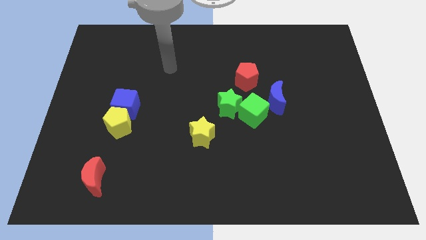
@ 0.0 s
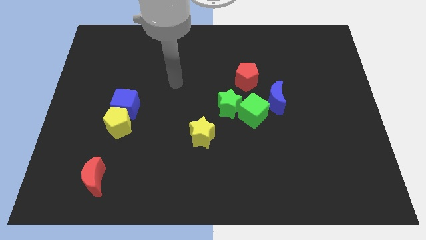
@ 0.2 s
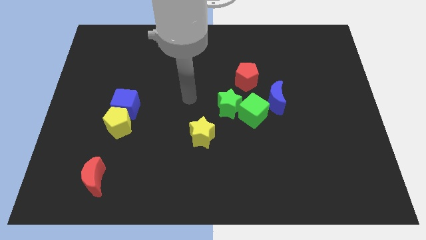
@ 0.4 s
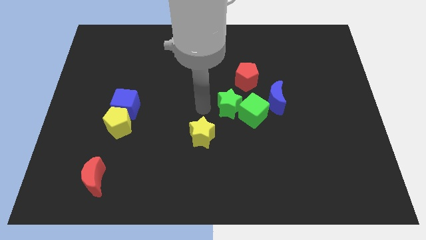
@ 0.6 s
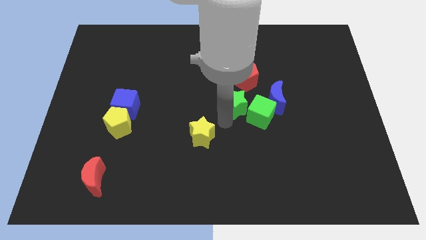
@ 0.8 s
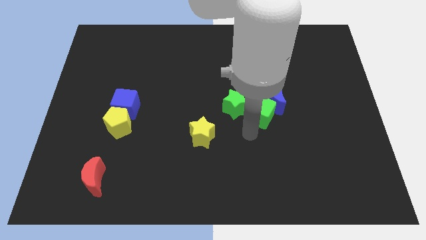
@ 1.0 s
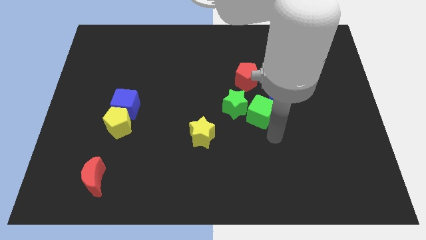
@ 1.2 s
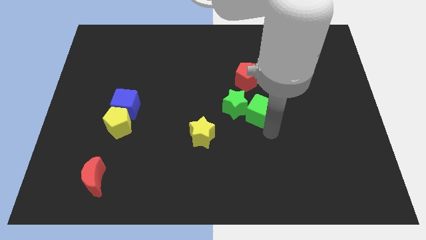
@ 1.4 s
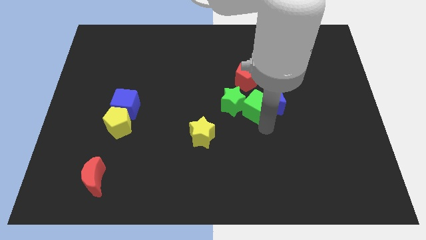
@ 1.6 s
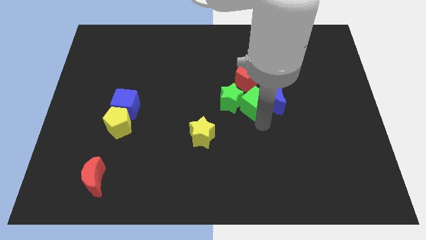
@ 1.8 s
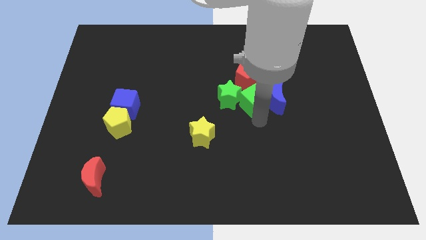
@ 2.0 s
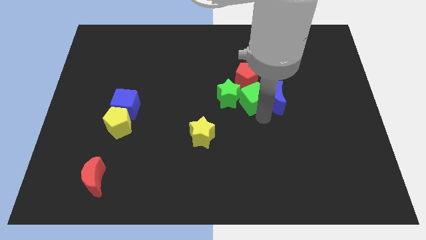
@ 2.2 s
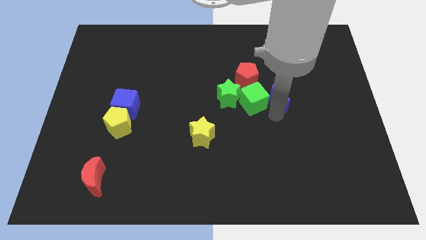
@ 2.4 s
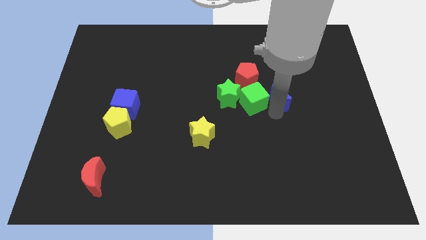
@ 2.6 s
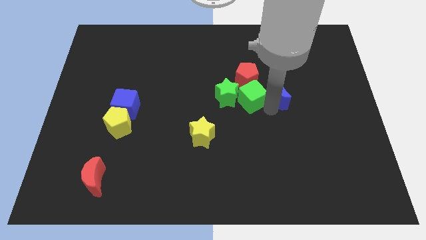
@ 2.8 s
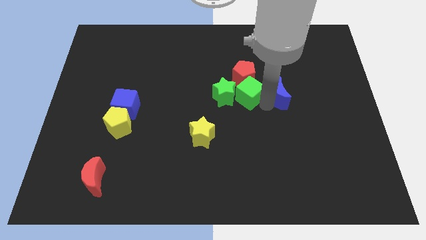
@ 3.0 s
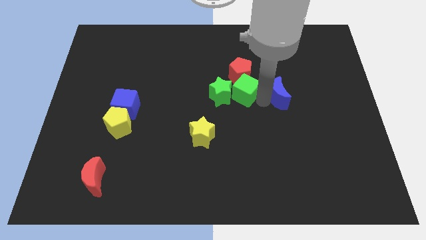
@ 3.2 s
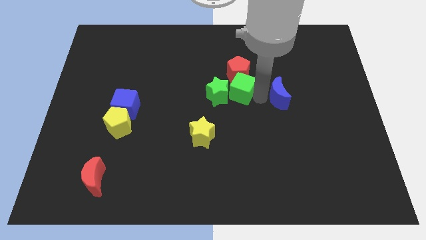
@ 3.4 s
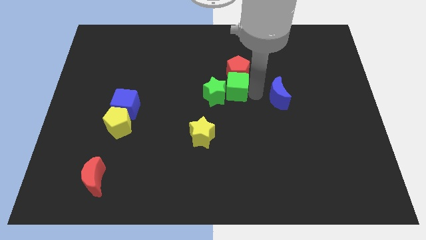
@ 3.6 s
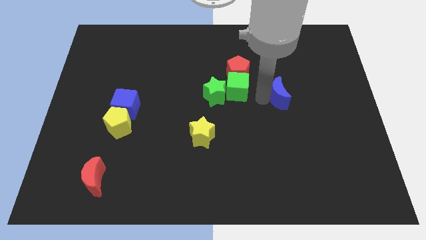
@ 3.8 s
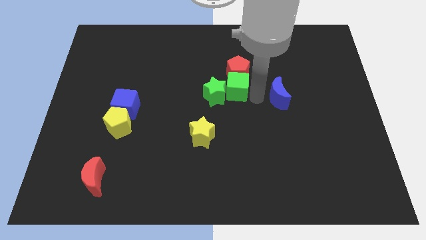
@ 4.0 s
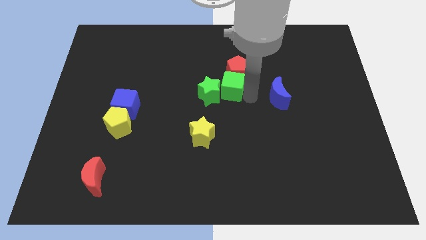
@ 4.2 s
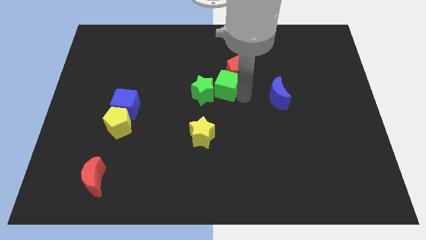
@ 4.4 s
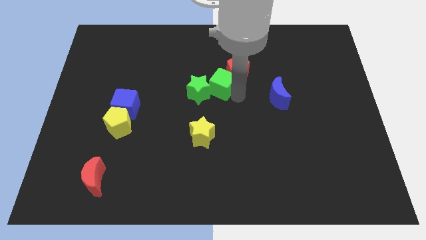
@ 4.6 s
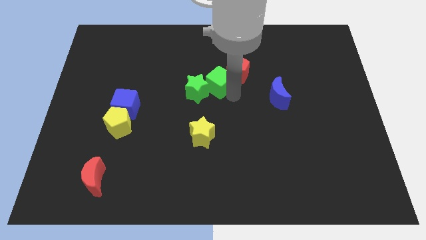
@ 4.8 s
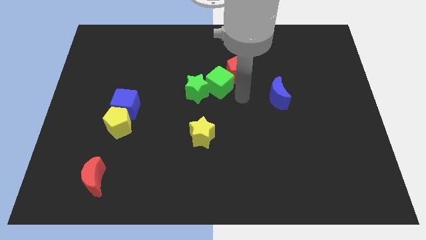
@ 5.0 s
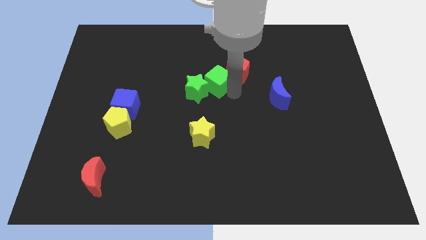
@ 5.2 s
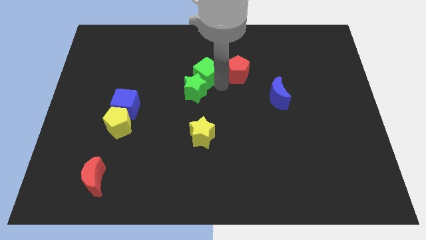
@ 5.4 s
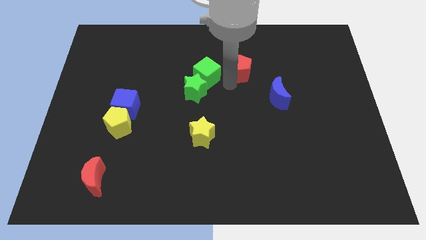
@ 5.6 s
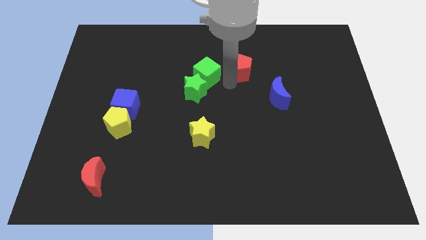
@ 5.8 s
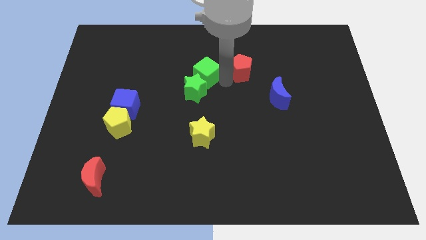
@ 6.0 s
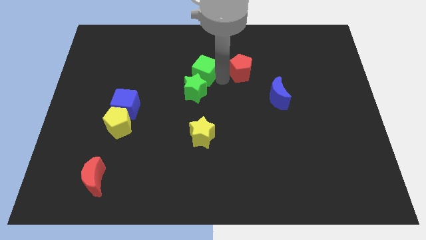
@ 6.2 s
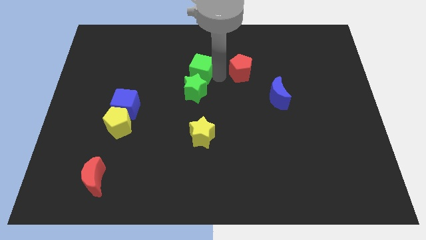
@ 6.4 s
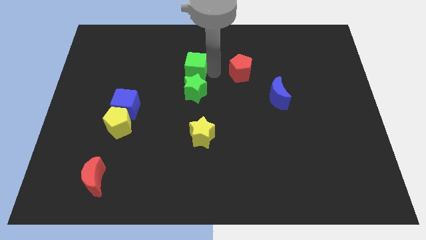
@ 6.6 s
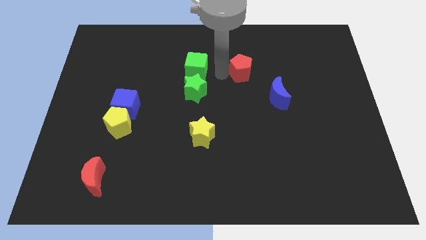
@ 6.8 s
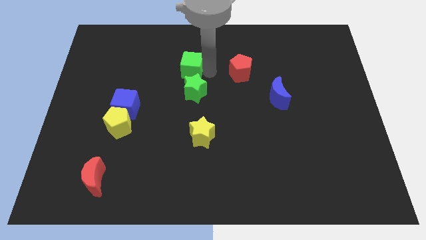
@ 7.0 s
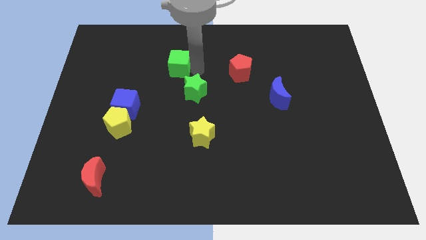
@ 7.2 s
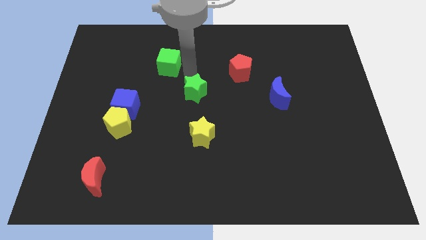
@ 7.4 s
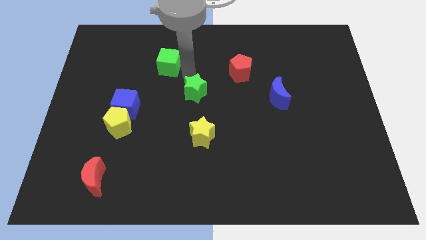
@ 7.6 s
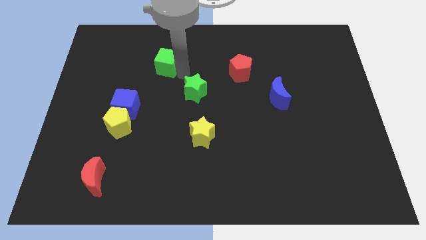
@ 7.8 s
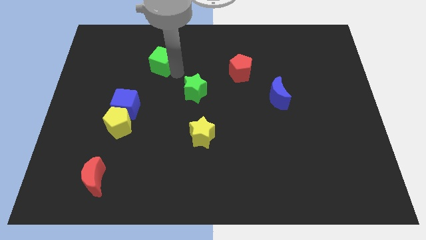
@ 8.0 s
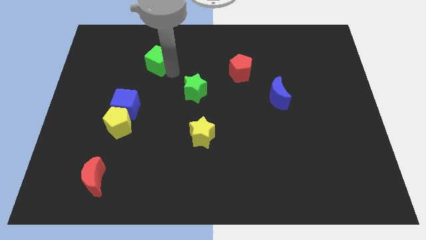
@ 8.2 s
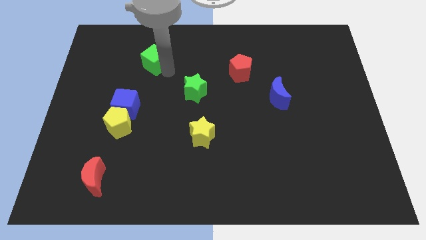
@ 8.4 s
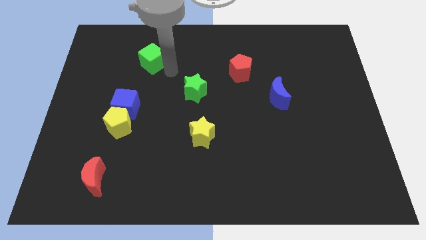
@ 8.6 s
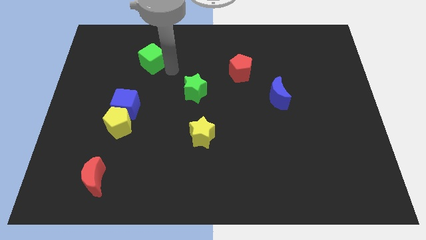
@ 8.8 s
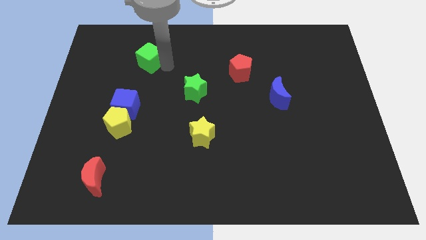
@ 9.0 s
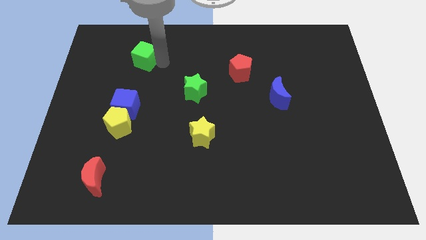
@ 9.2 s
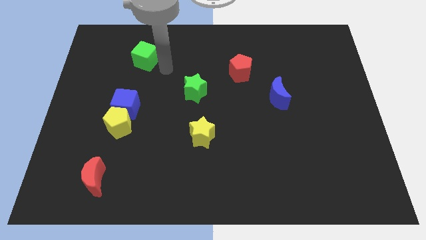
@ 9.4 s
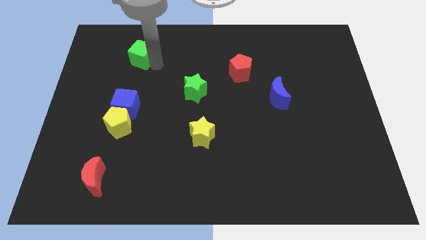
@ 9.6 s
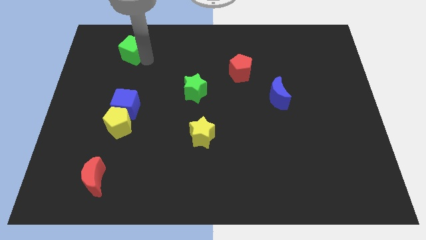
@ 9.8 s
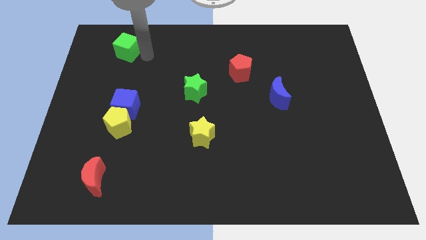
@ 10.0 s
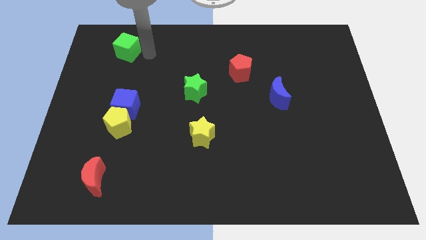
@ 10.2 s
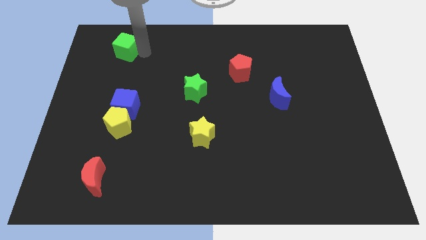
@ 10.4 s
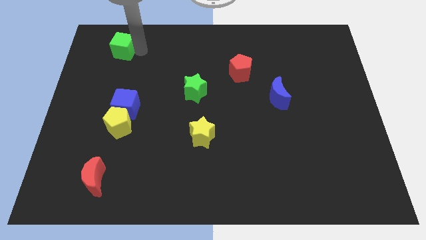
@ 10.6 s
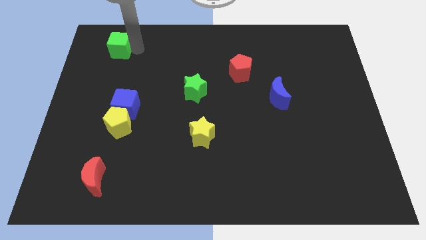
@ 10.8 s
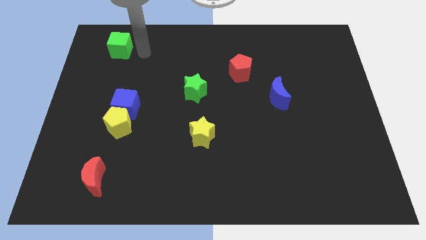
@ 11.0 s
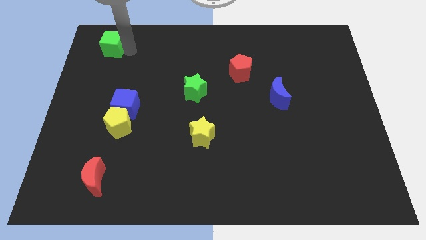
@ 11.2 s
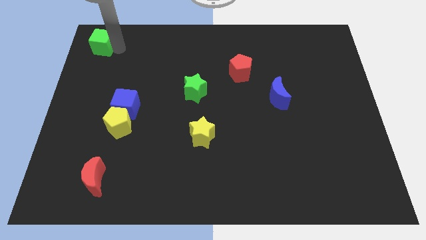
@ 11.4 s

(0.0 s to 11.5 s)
slide the green cube to the top left of the board

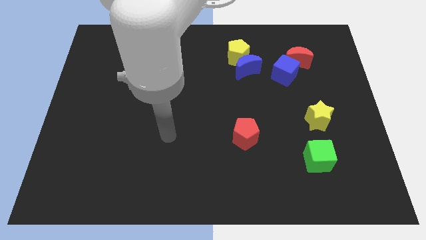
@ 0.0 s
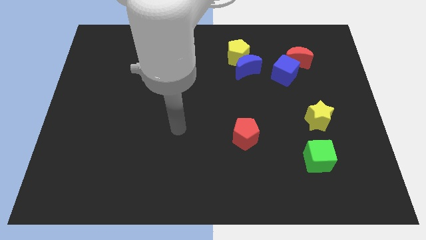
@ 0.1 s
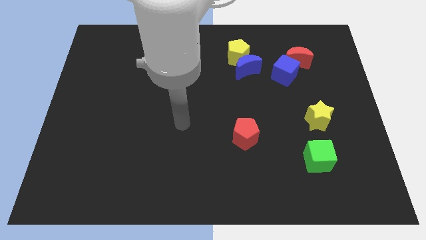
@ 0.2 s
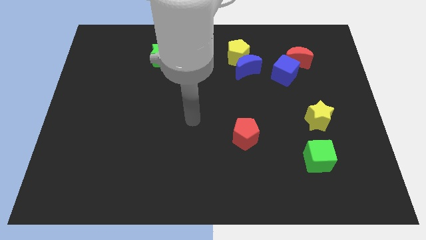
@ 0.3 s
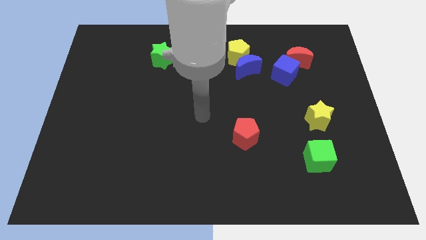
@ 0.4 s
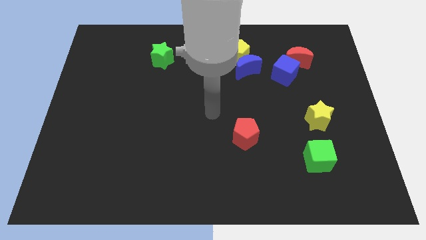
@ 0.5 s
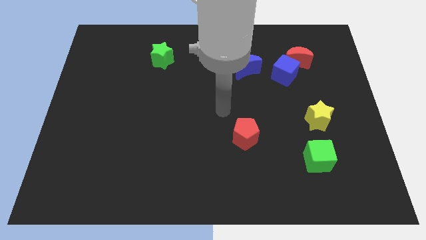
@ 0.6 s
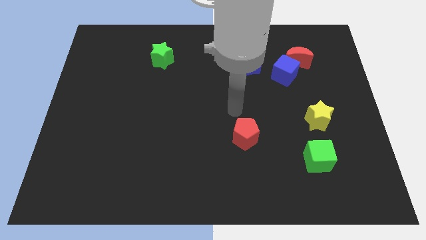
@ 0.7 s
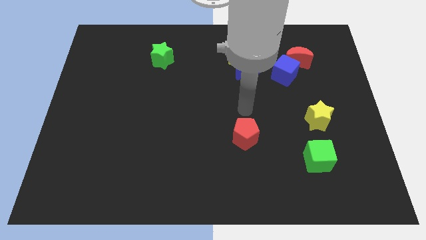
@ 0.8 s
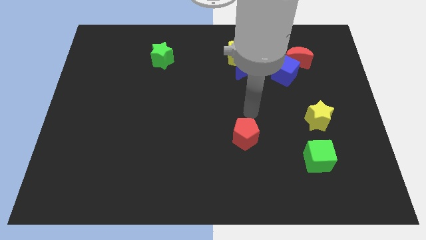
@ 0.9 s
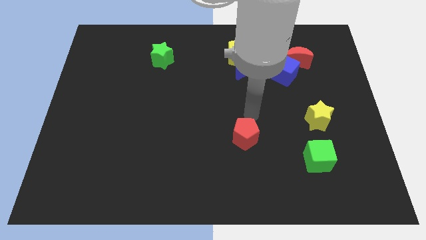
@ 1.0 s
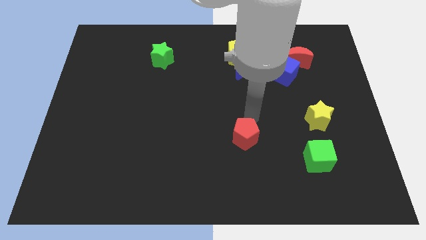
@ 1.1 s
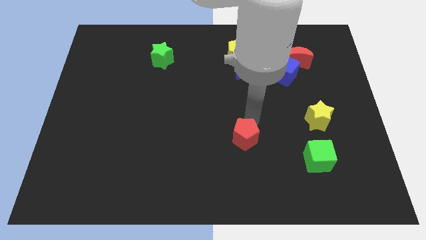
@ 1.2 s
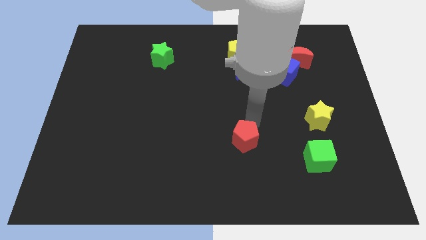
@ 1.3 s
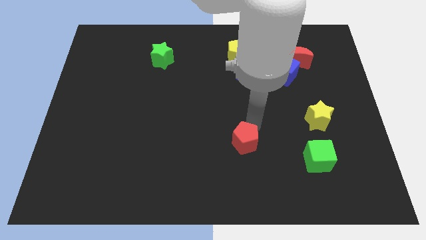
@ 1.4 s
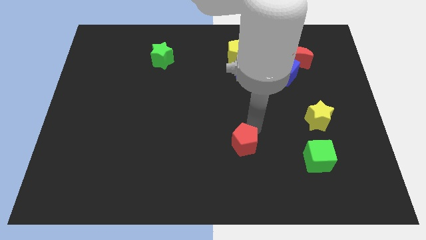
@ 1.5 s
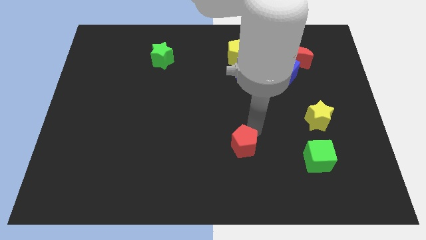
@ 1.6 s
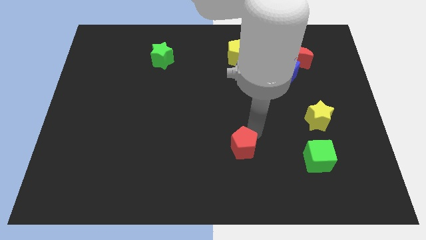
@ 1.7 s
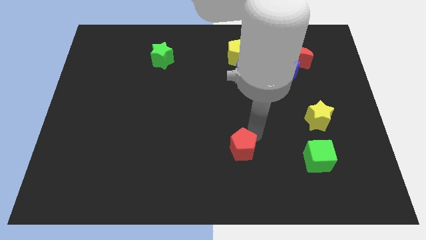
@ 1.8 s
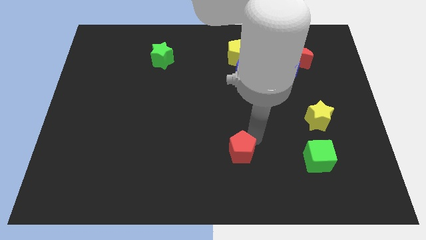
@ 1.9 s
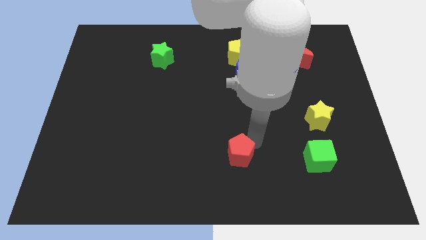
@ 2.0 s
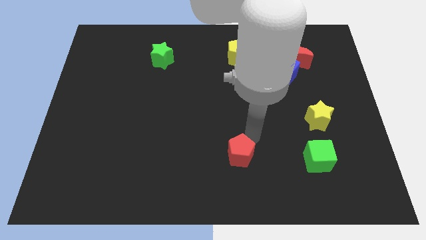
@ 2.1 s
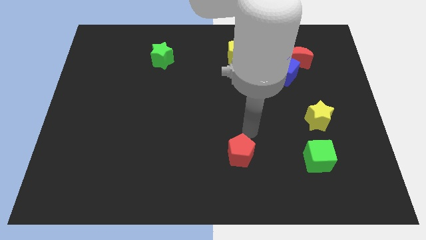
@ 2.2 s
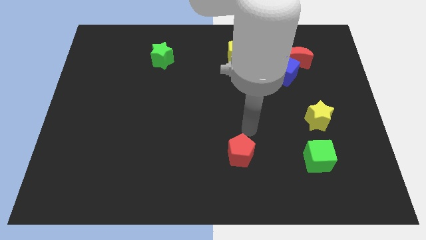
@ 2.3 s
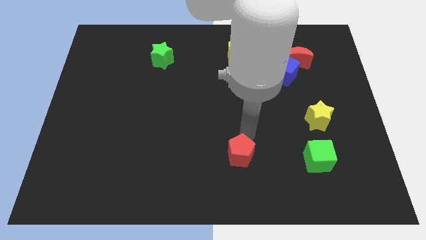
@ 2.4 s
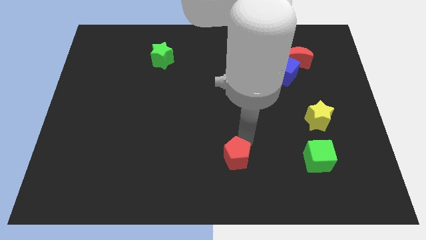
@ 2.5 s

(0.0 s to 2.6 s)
push the red pentagon to the bottom
